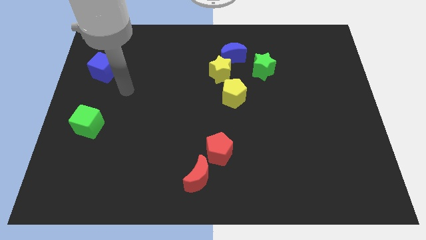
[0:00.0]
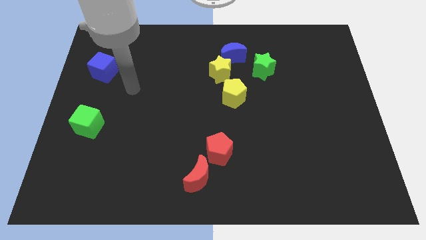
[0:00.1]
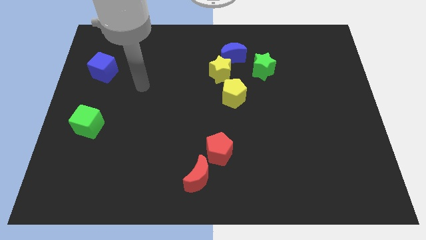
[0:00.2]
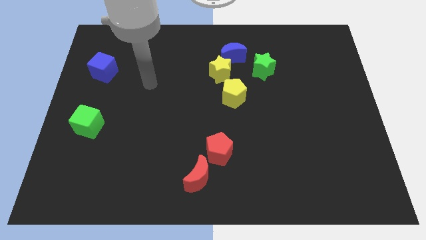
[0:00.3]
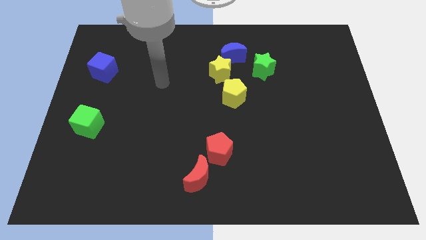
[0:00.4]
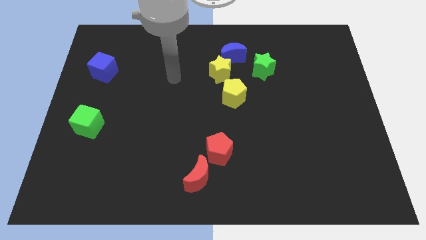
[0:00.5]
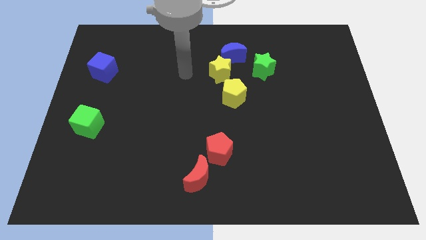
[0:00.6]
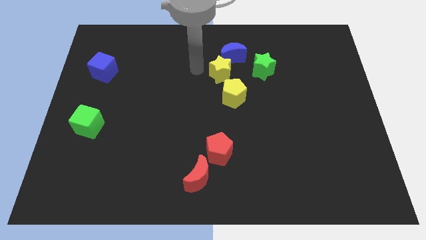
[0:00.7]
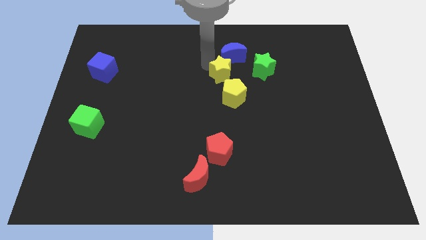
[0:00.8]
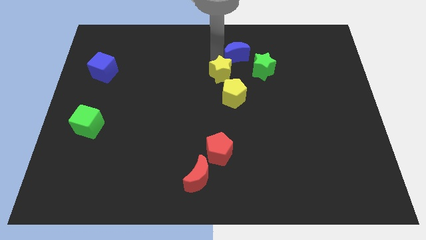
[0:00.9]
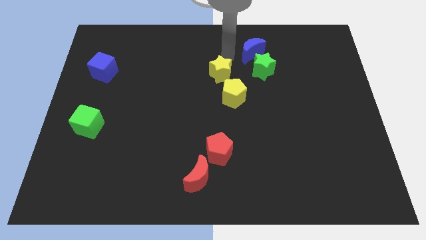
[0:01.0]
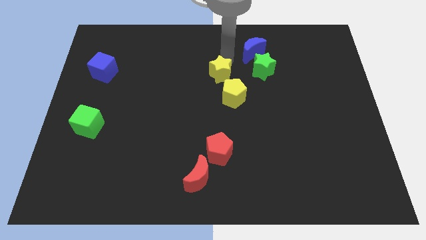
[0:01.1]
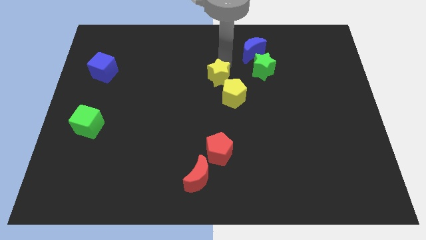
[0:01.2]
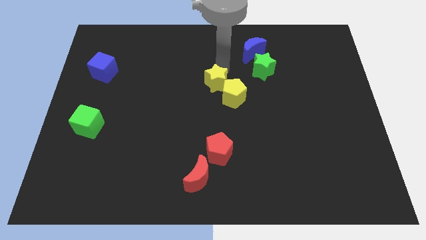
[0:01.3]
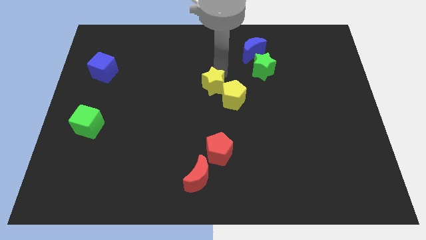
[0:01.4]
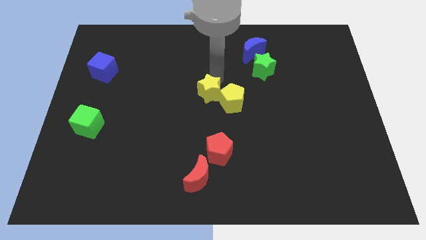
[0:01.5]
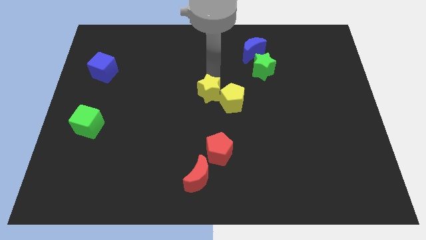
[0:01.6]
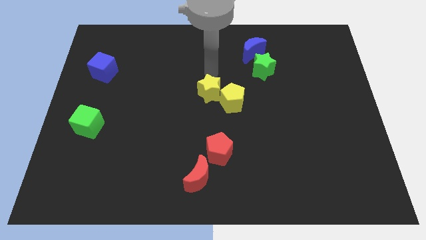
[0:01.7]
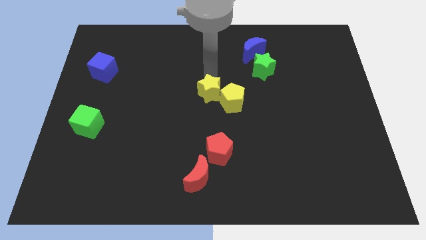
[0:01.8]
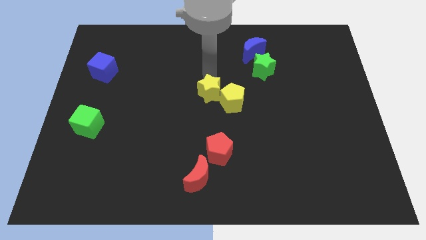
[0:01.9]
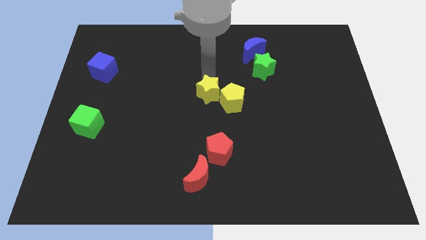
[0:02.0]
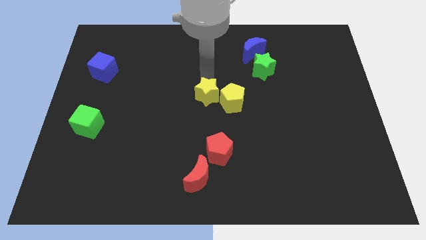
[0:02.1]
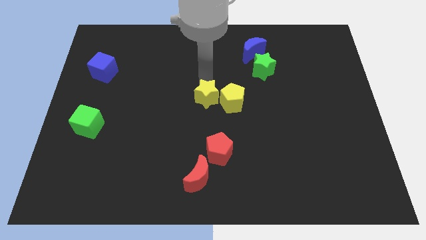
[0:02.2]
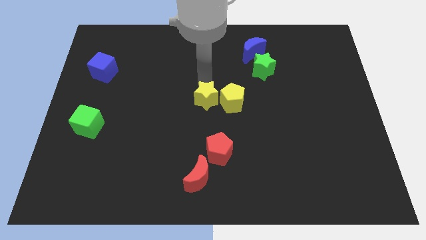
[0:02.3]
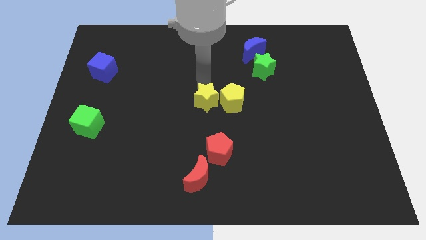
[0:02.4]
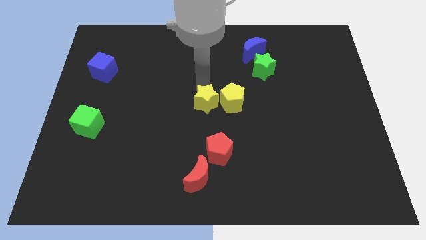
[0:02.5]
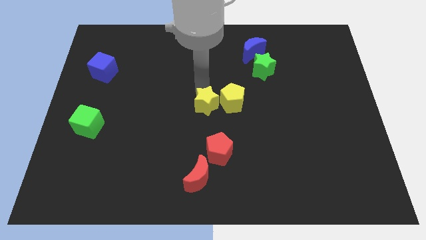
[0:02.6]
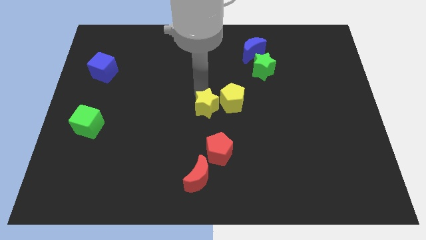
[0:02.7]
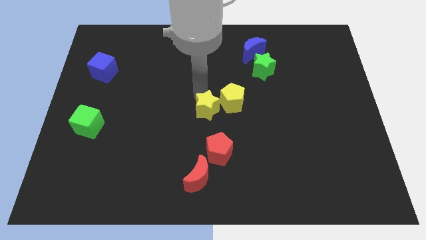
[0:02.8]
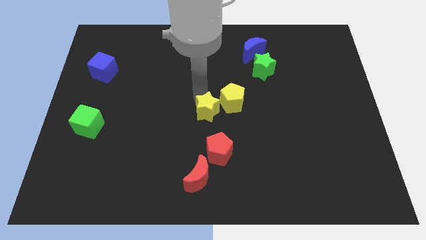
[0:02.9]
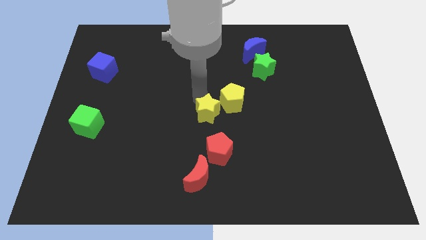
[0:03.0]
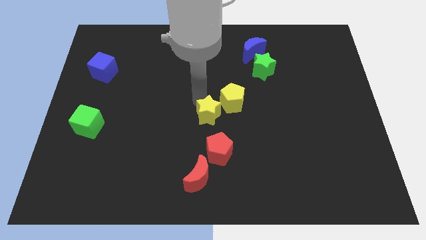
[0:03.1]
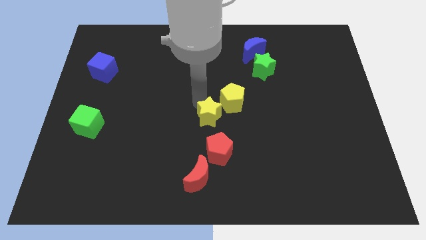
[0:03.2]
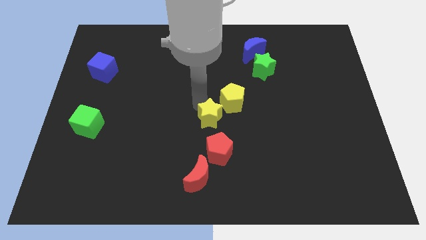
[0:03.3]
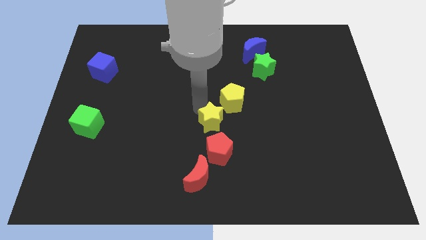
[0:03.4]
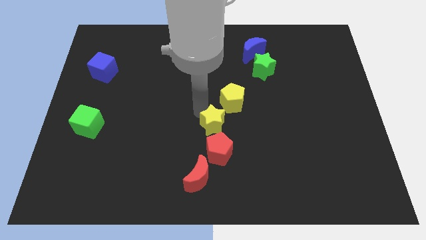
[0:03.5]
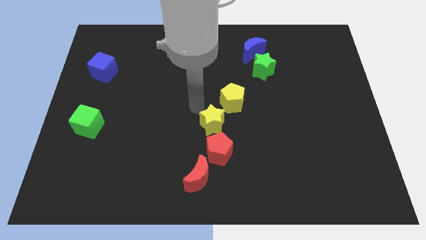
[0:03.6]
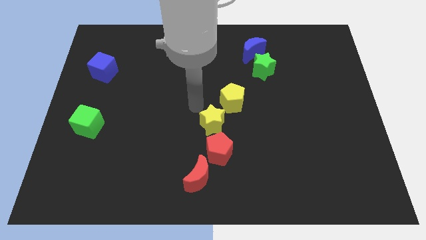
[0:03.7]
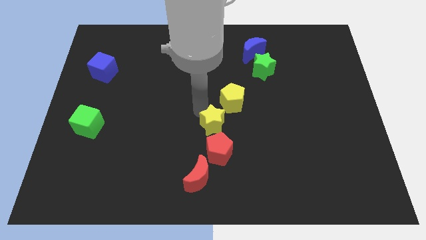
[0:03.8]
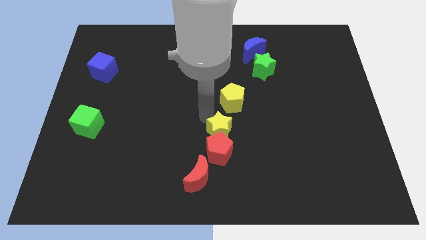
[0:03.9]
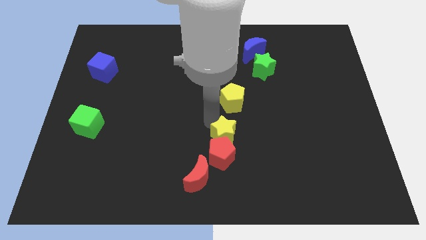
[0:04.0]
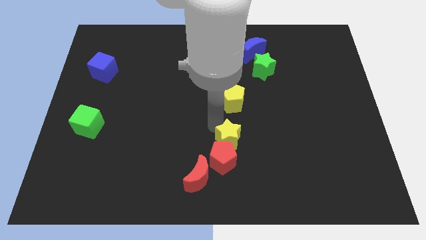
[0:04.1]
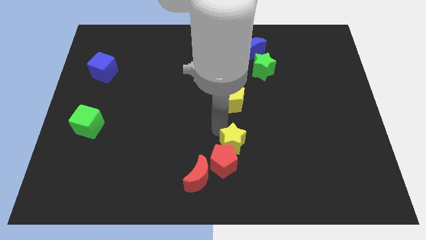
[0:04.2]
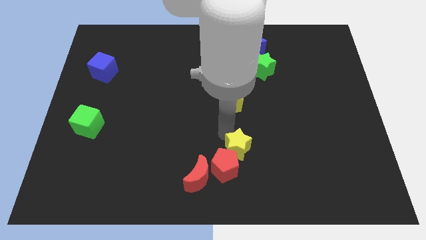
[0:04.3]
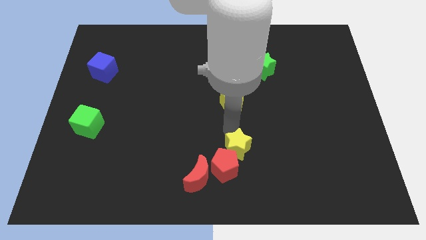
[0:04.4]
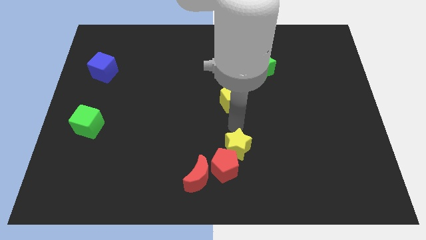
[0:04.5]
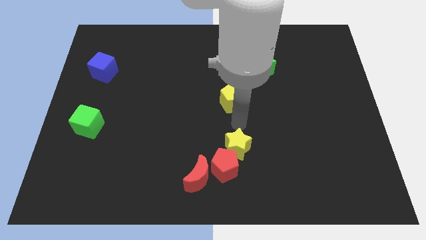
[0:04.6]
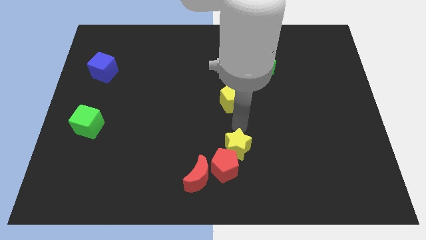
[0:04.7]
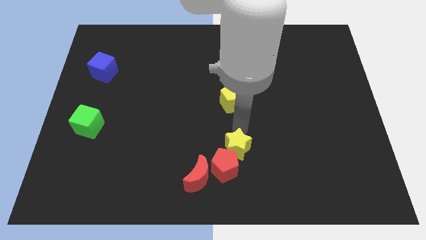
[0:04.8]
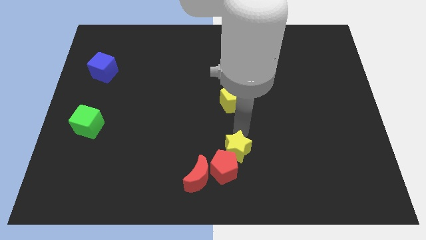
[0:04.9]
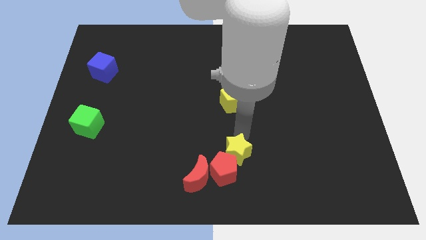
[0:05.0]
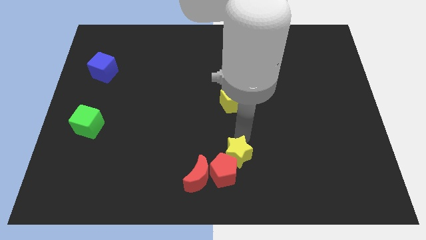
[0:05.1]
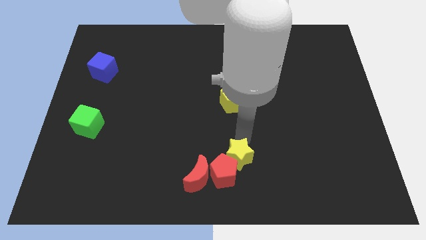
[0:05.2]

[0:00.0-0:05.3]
push the yellow star to the bottom

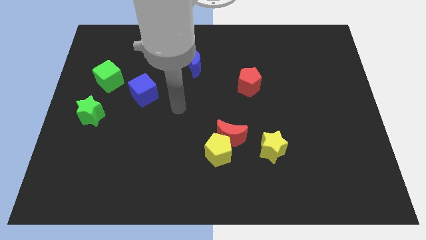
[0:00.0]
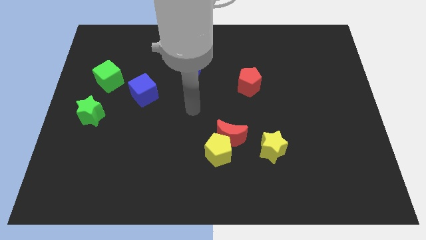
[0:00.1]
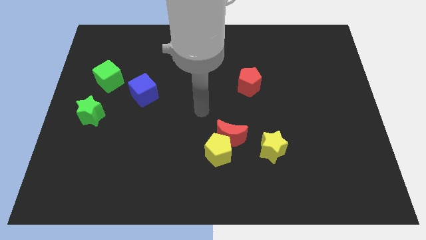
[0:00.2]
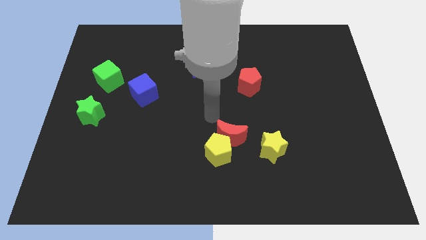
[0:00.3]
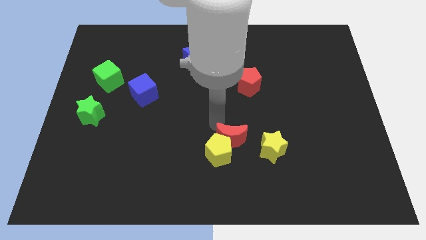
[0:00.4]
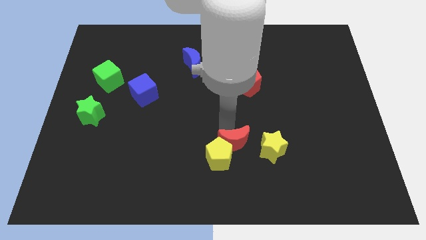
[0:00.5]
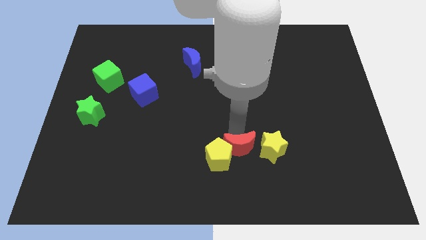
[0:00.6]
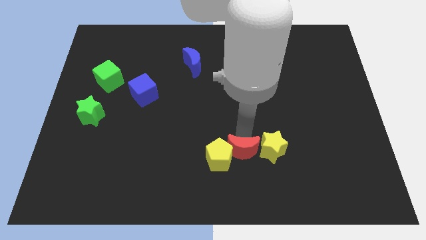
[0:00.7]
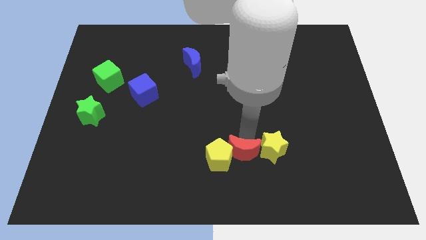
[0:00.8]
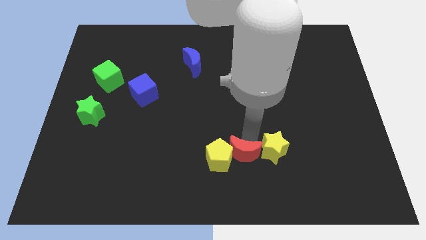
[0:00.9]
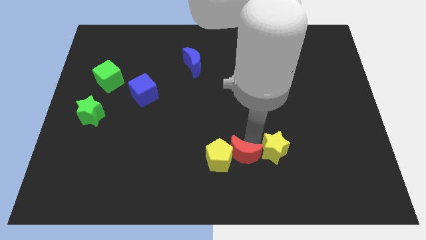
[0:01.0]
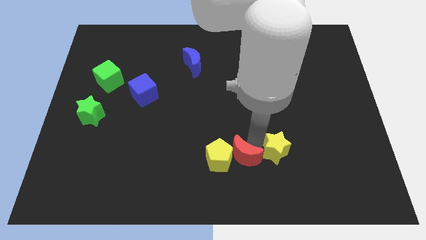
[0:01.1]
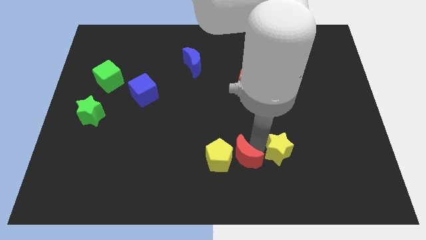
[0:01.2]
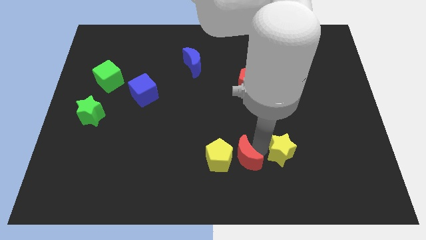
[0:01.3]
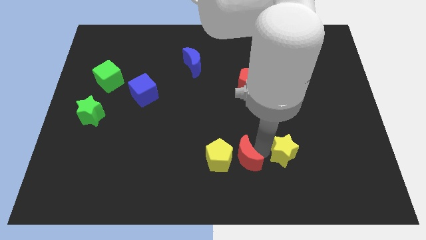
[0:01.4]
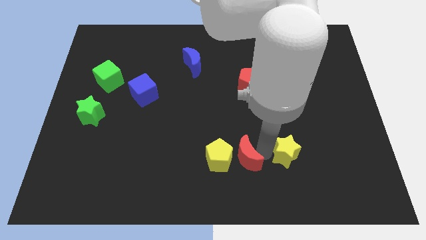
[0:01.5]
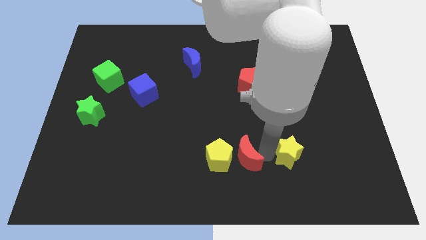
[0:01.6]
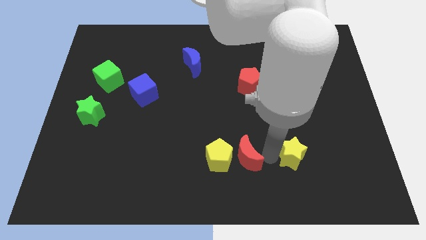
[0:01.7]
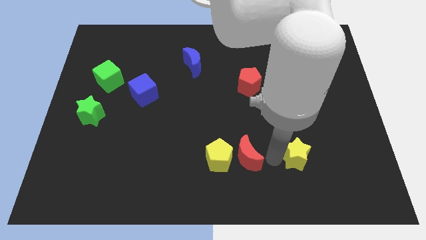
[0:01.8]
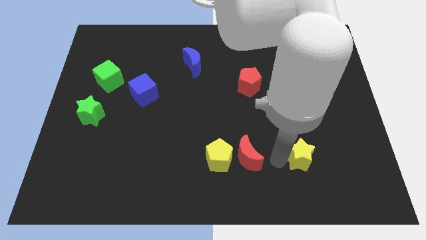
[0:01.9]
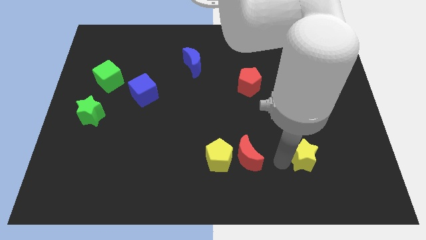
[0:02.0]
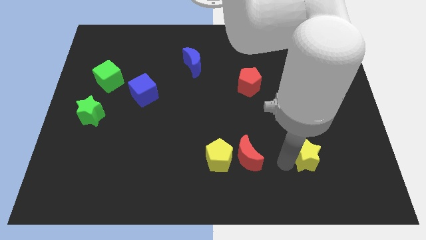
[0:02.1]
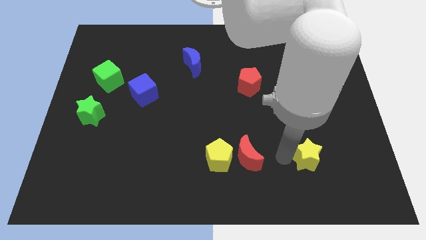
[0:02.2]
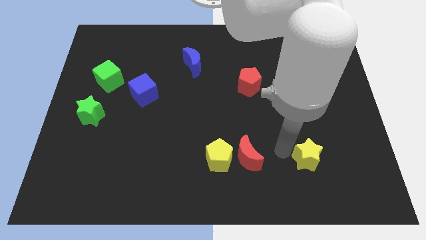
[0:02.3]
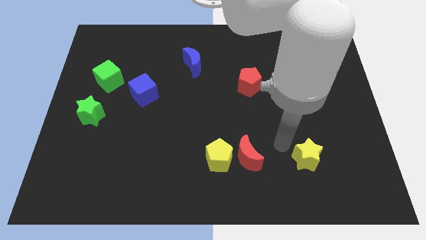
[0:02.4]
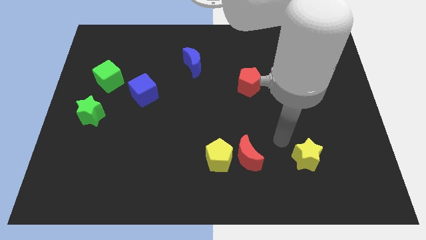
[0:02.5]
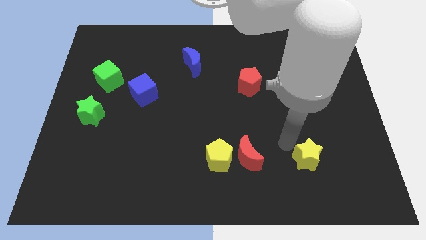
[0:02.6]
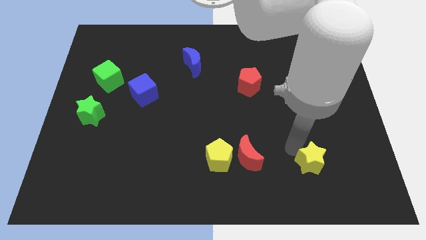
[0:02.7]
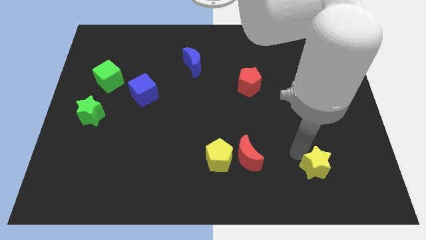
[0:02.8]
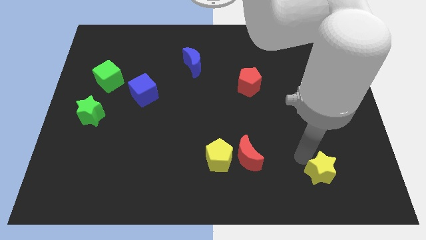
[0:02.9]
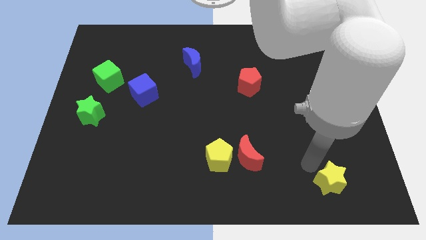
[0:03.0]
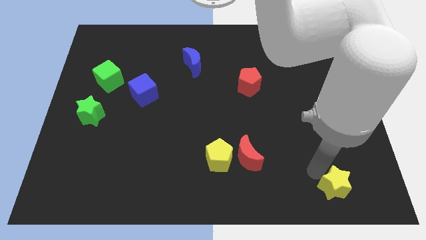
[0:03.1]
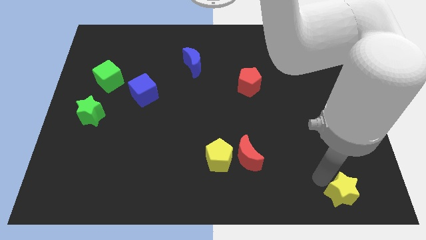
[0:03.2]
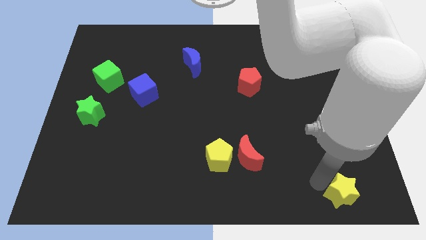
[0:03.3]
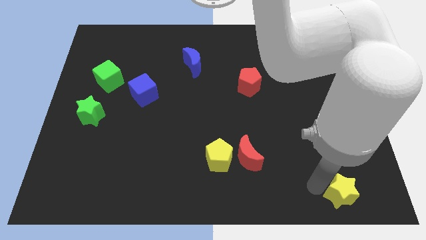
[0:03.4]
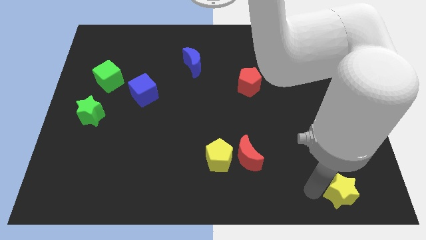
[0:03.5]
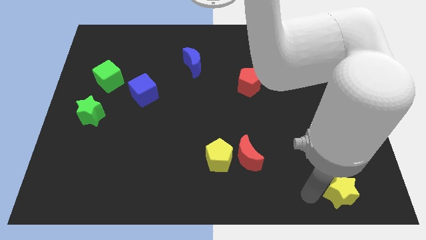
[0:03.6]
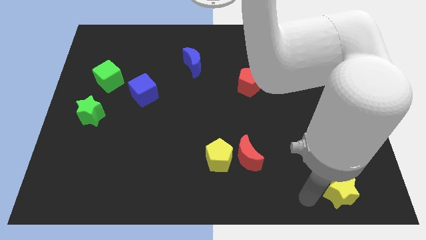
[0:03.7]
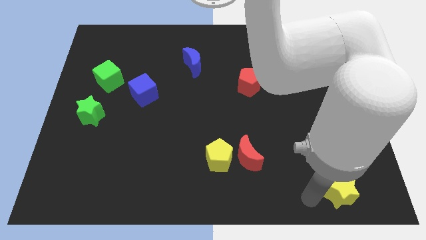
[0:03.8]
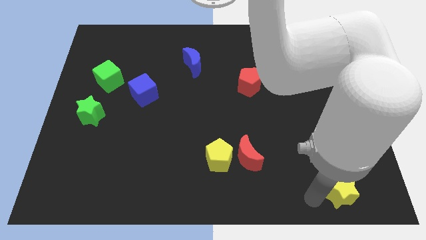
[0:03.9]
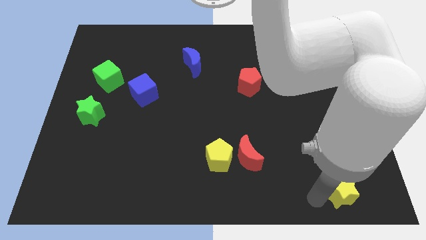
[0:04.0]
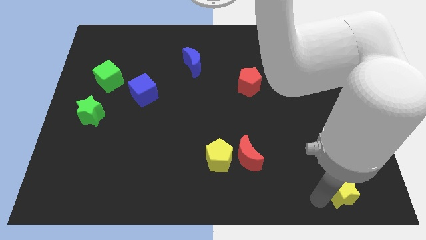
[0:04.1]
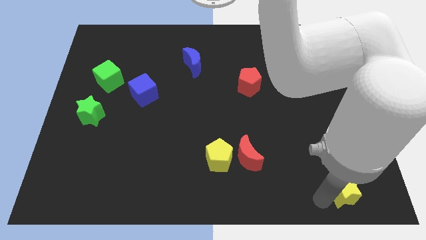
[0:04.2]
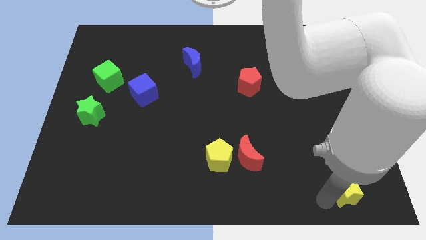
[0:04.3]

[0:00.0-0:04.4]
put the yellow star to the bottom right corner
